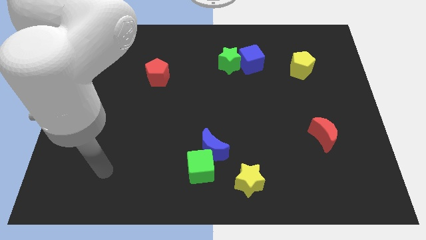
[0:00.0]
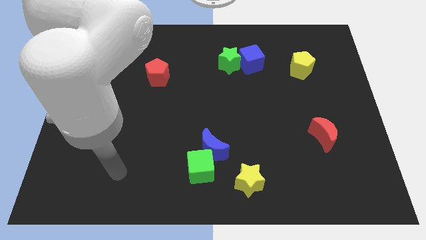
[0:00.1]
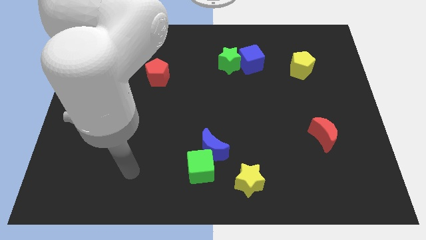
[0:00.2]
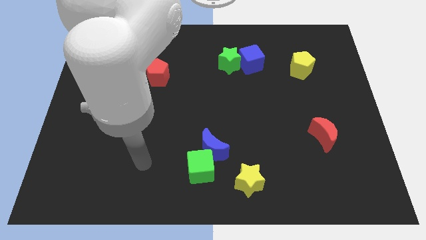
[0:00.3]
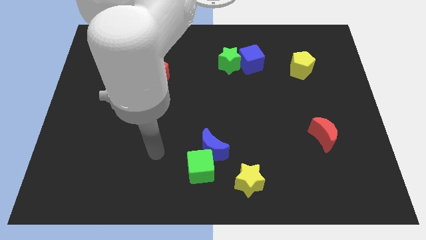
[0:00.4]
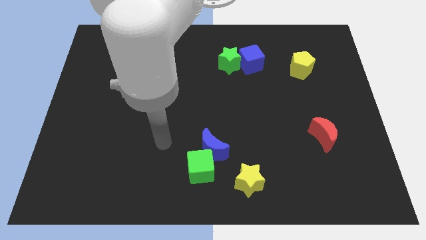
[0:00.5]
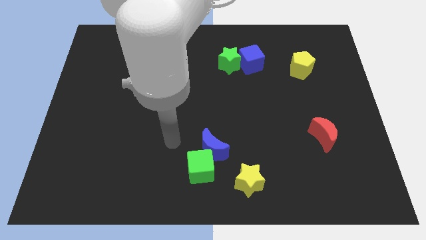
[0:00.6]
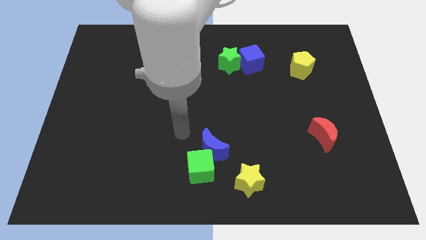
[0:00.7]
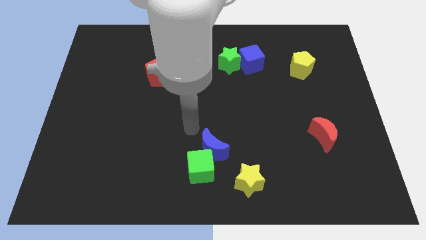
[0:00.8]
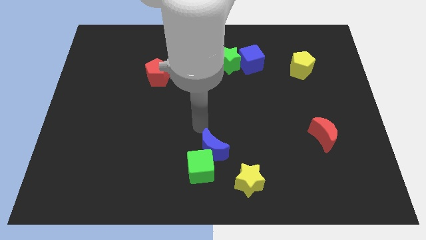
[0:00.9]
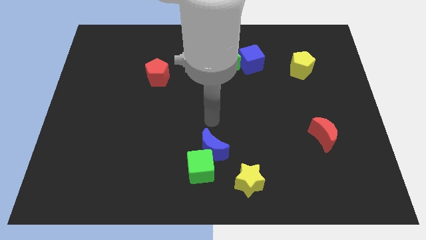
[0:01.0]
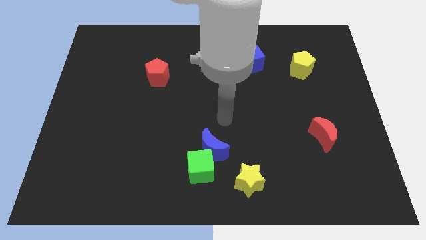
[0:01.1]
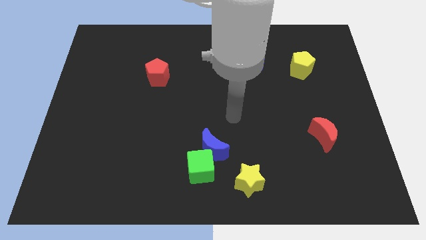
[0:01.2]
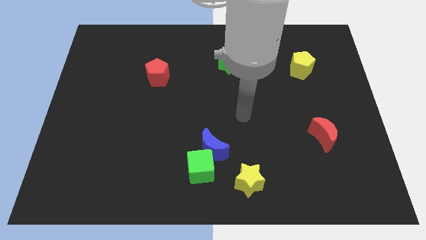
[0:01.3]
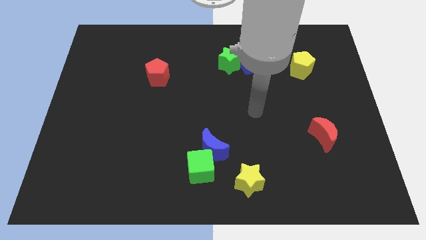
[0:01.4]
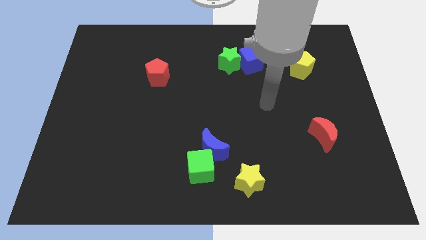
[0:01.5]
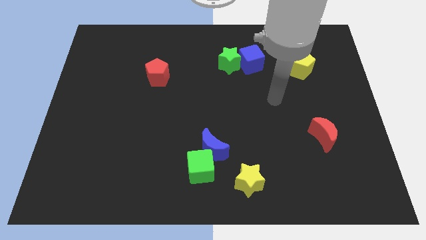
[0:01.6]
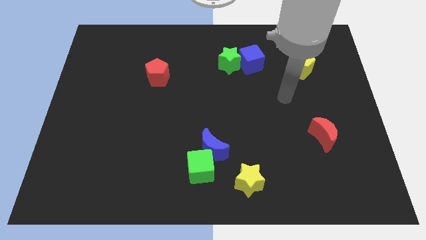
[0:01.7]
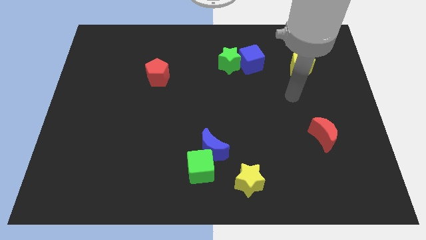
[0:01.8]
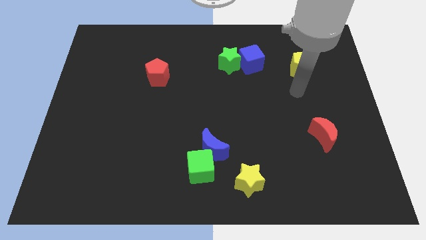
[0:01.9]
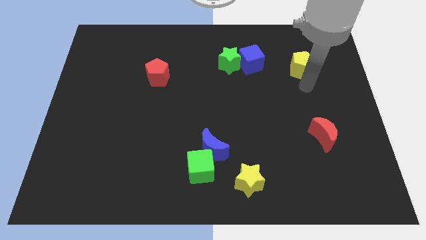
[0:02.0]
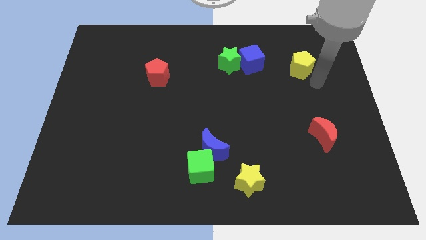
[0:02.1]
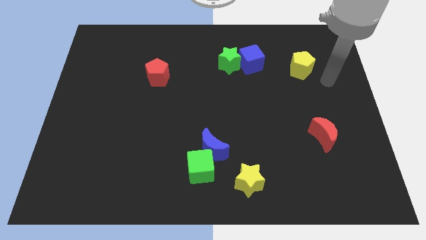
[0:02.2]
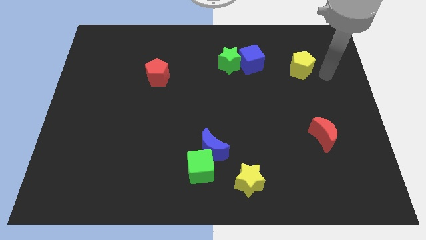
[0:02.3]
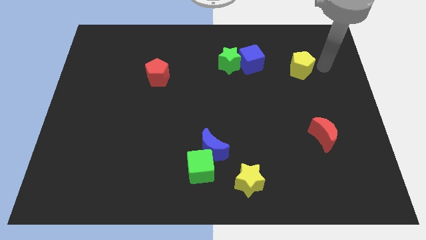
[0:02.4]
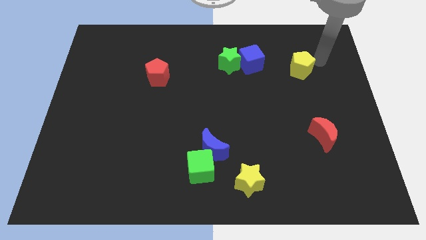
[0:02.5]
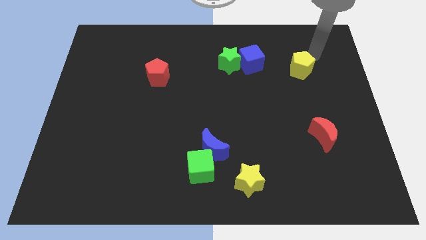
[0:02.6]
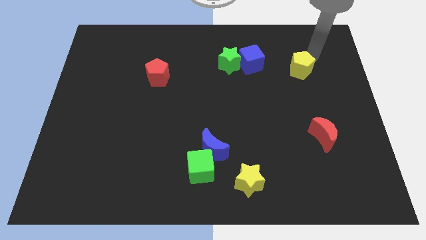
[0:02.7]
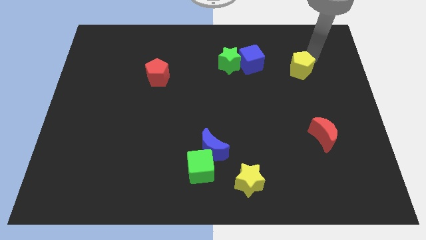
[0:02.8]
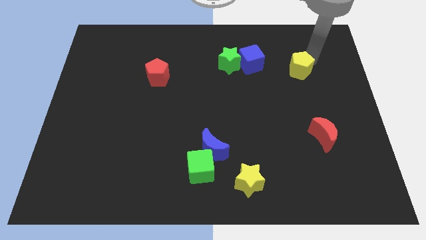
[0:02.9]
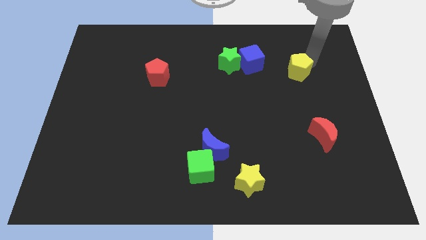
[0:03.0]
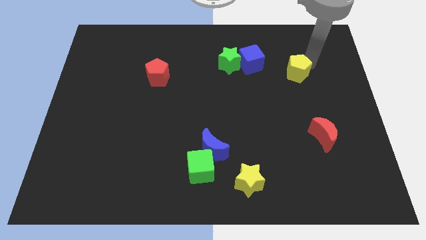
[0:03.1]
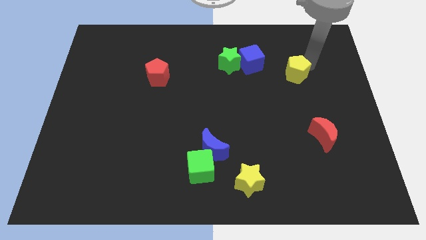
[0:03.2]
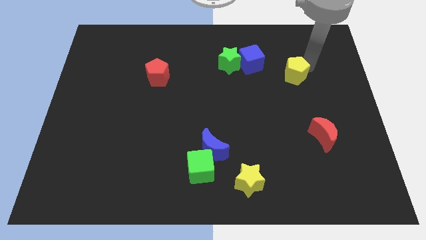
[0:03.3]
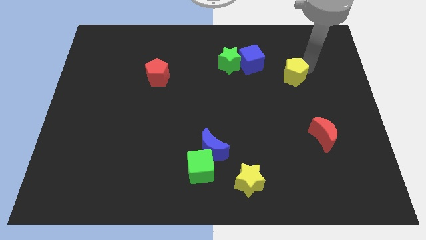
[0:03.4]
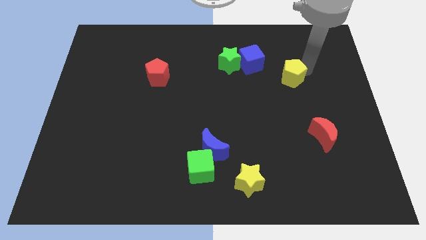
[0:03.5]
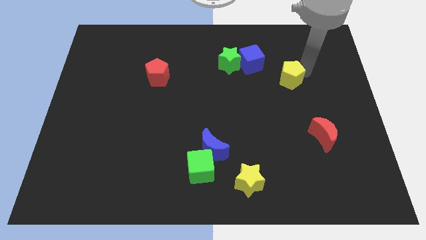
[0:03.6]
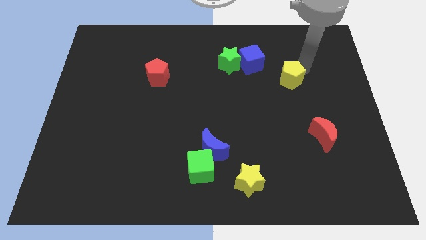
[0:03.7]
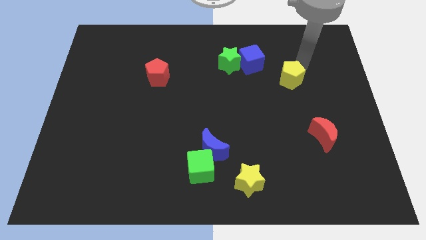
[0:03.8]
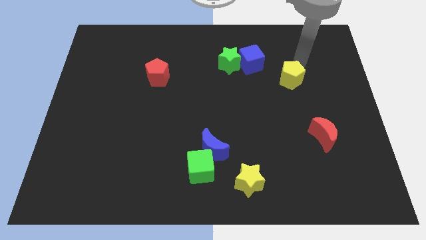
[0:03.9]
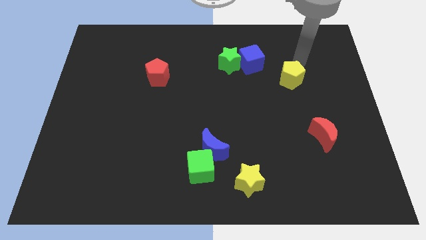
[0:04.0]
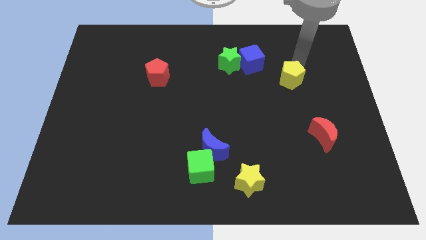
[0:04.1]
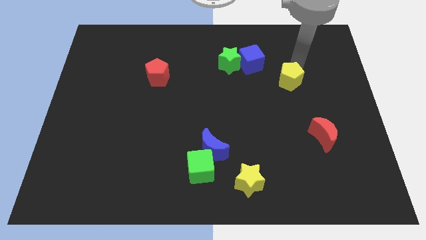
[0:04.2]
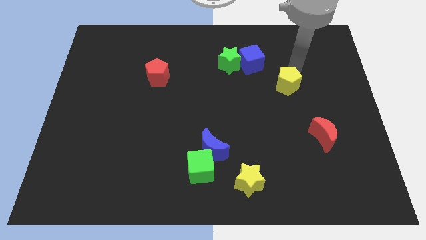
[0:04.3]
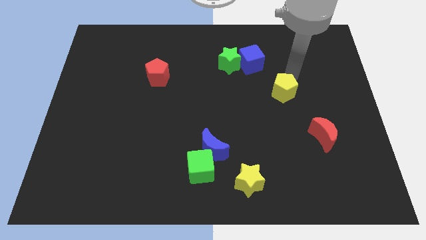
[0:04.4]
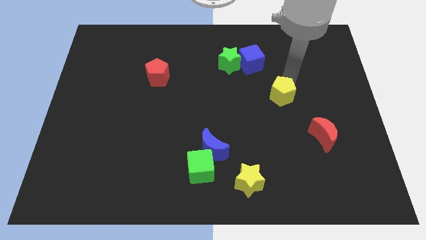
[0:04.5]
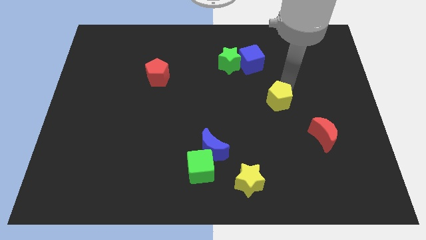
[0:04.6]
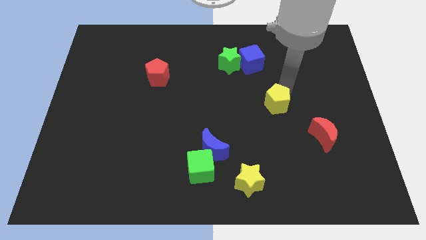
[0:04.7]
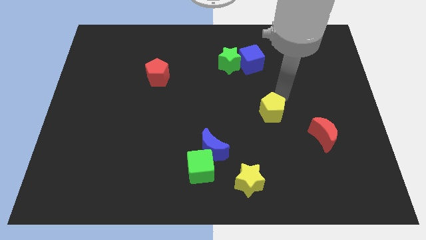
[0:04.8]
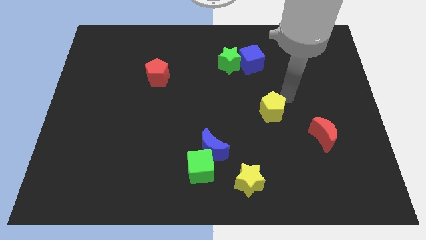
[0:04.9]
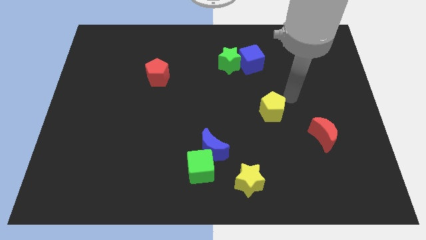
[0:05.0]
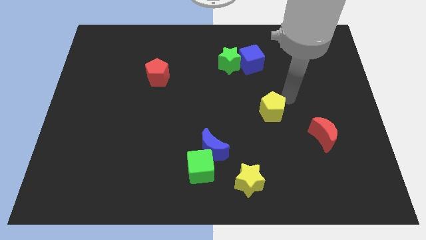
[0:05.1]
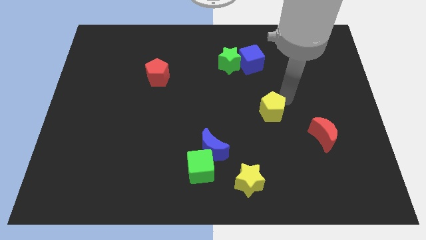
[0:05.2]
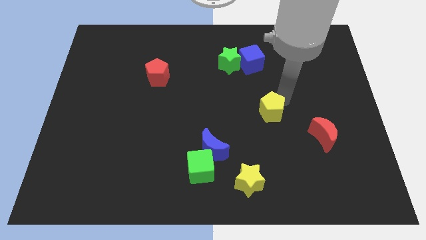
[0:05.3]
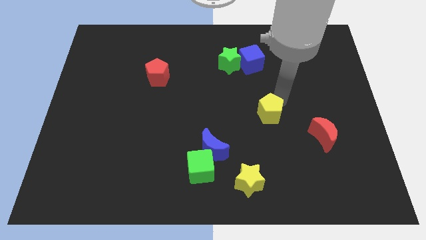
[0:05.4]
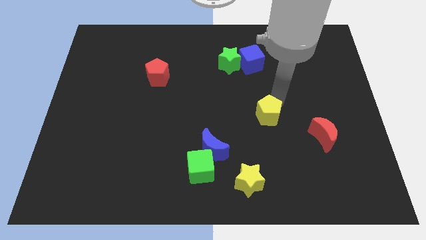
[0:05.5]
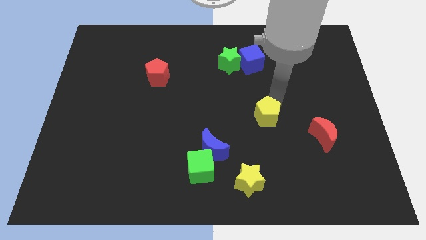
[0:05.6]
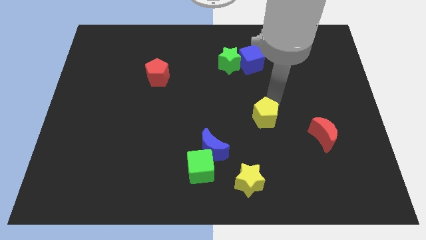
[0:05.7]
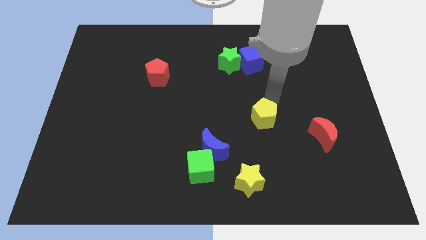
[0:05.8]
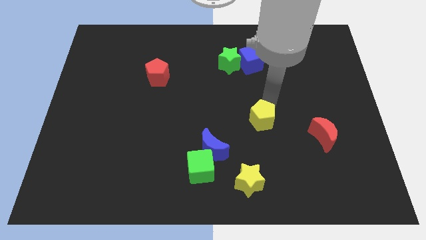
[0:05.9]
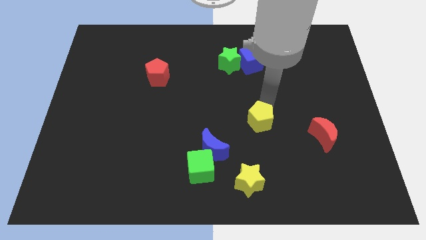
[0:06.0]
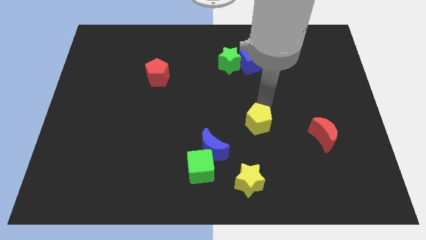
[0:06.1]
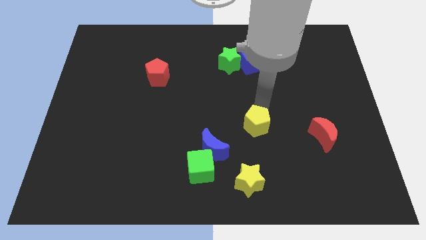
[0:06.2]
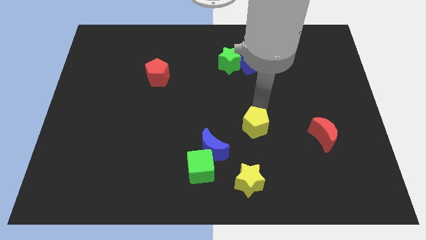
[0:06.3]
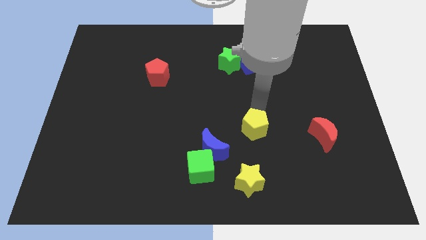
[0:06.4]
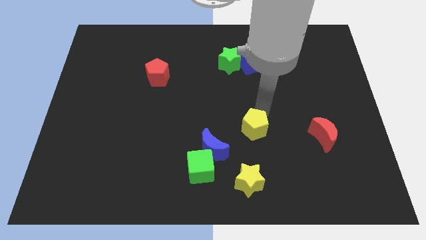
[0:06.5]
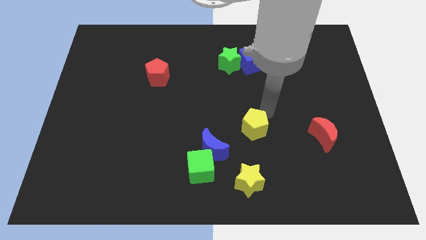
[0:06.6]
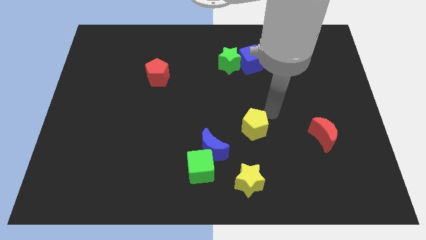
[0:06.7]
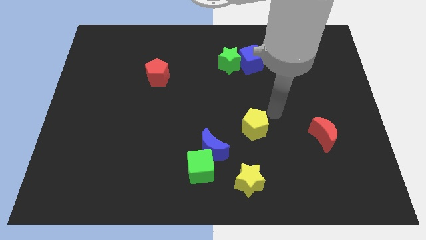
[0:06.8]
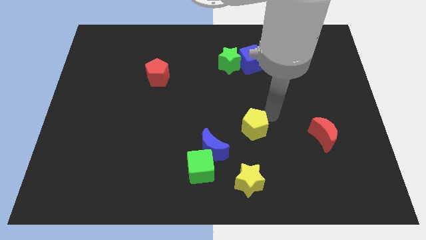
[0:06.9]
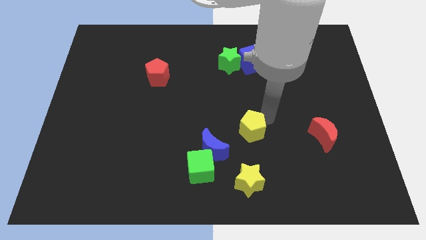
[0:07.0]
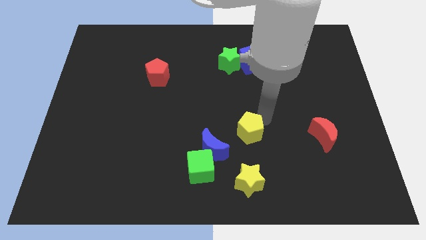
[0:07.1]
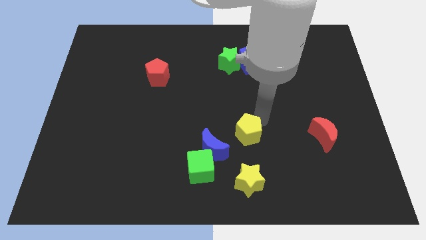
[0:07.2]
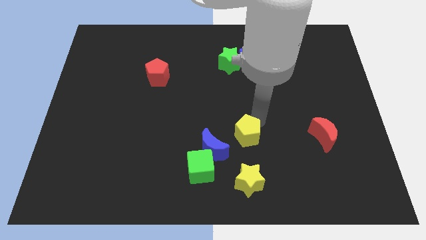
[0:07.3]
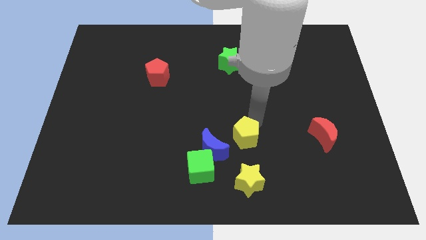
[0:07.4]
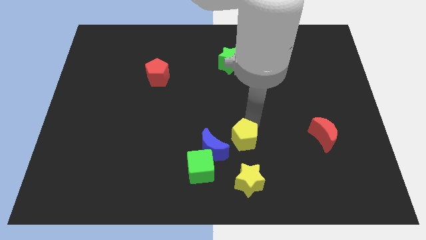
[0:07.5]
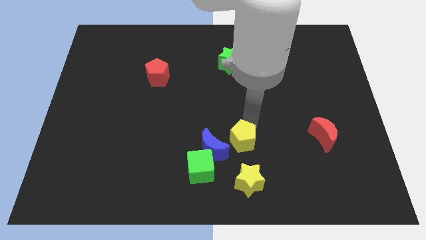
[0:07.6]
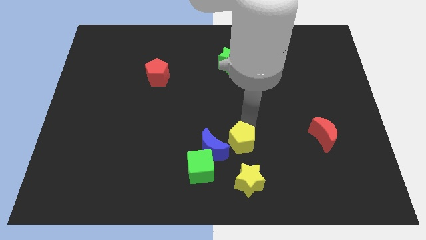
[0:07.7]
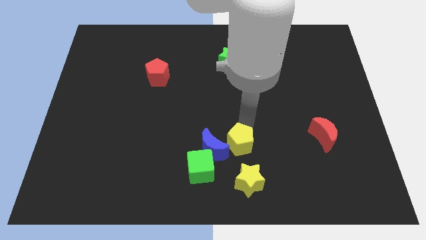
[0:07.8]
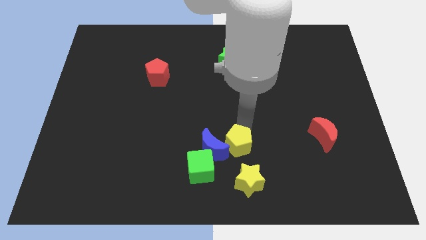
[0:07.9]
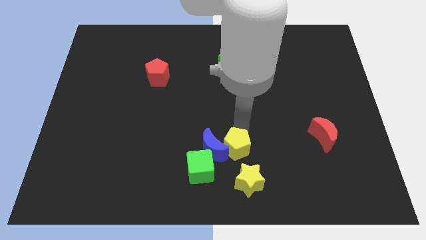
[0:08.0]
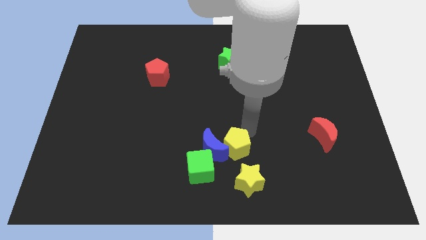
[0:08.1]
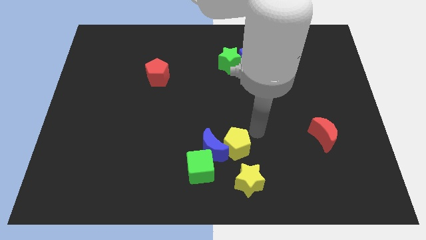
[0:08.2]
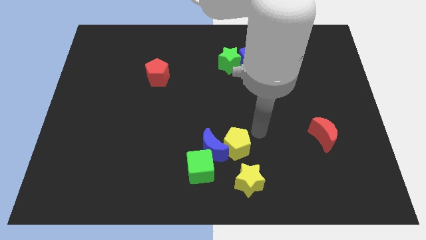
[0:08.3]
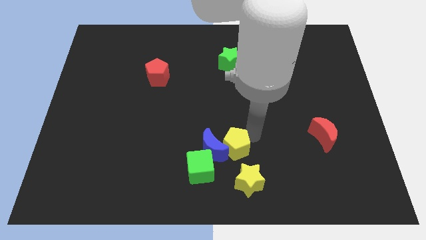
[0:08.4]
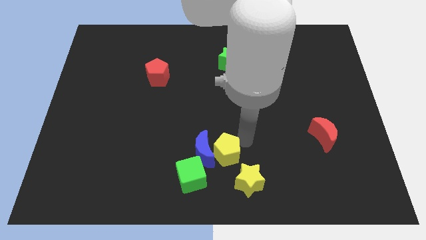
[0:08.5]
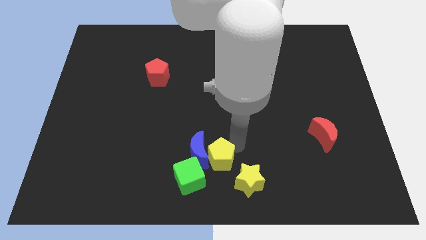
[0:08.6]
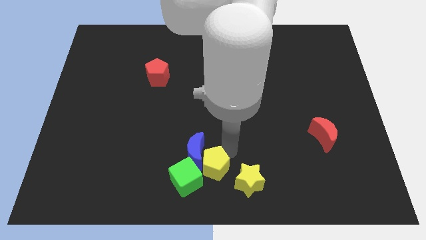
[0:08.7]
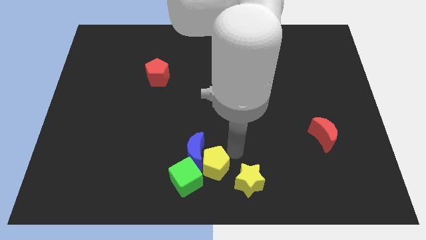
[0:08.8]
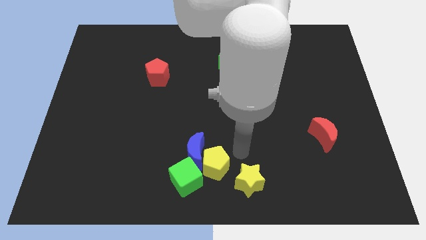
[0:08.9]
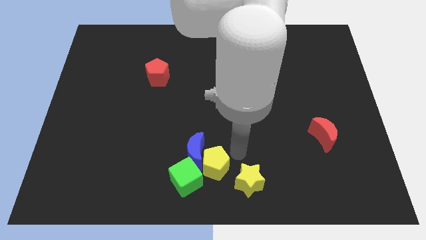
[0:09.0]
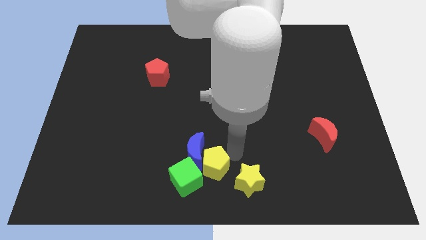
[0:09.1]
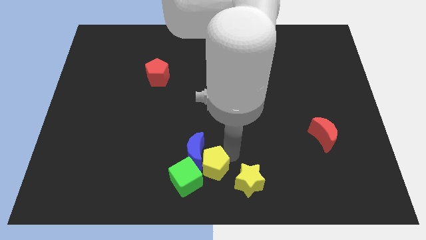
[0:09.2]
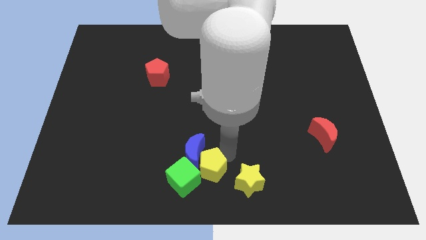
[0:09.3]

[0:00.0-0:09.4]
move the yellow pentagon close to the green cube
